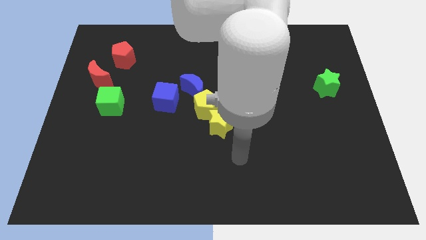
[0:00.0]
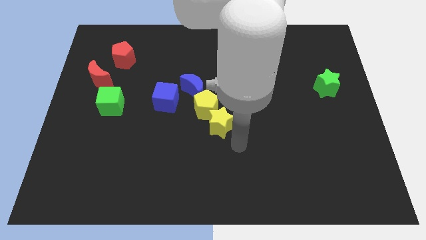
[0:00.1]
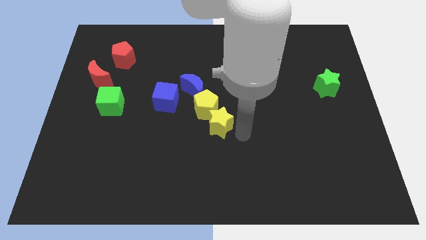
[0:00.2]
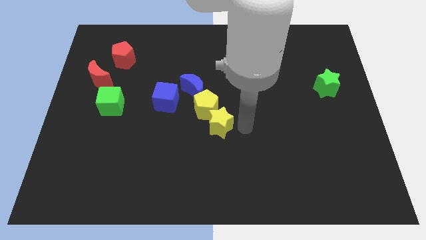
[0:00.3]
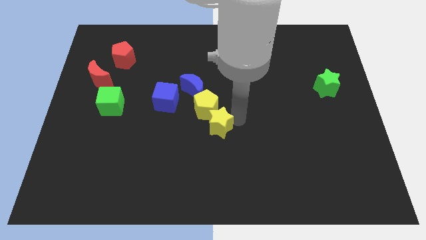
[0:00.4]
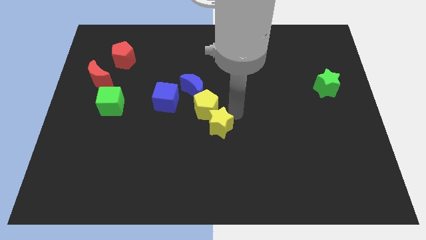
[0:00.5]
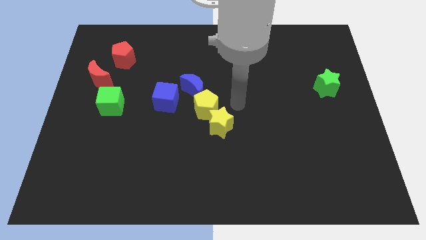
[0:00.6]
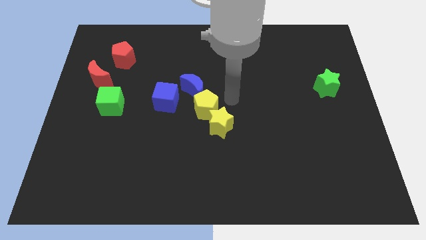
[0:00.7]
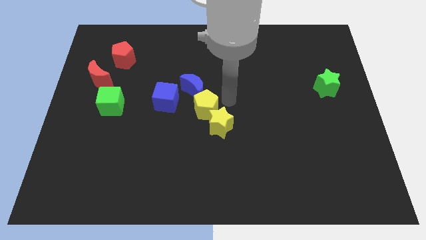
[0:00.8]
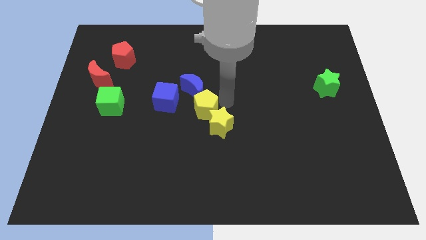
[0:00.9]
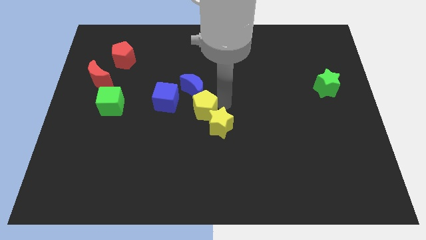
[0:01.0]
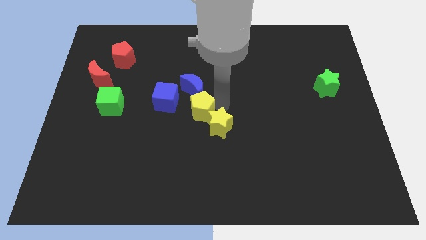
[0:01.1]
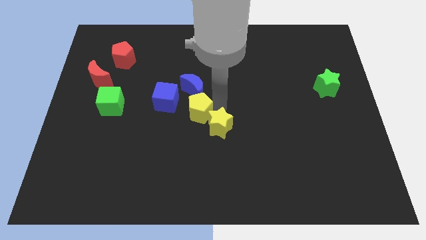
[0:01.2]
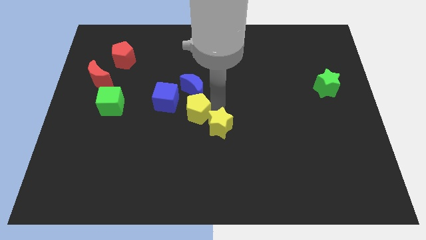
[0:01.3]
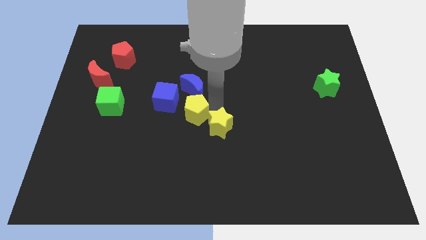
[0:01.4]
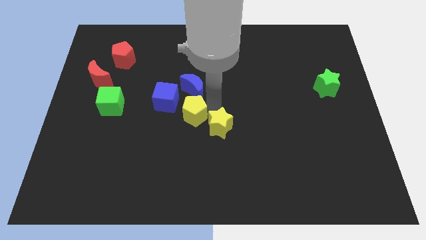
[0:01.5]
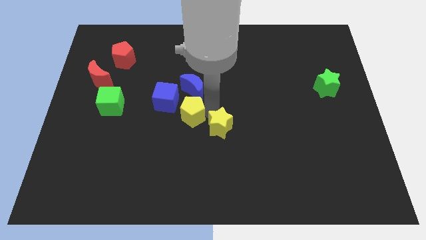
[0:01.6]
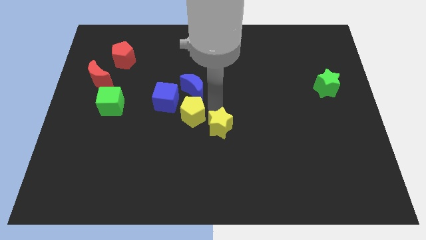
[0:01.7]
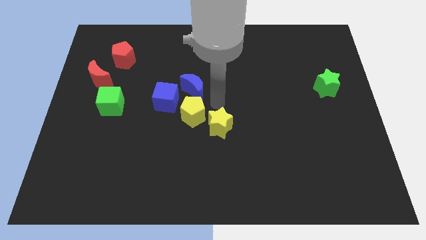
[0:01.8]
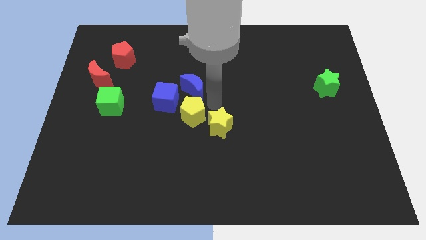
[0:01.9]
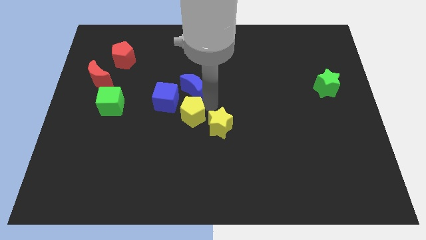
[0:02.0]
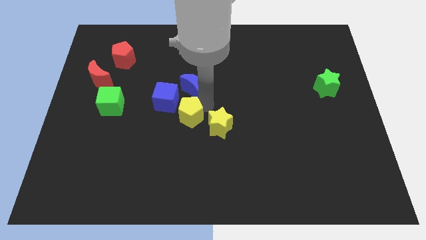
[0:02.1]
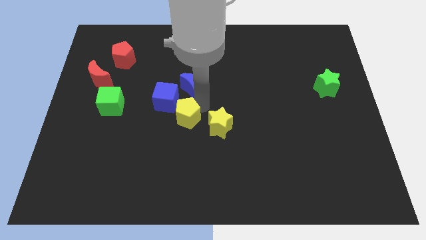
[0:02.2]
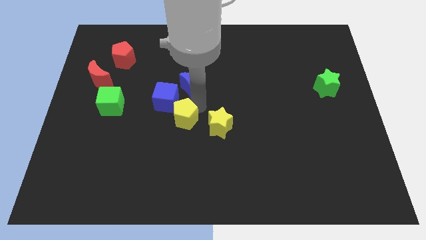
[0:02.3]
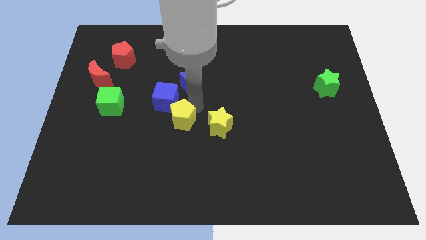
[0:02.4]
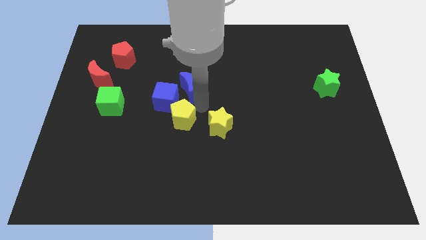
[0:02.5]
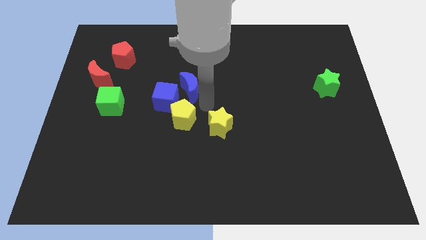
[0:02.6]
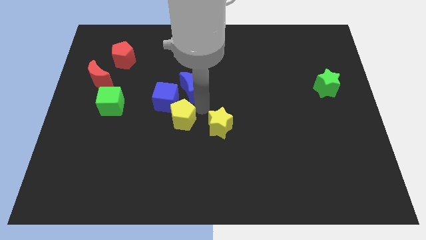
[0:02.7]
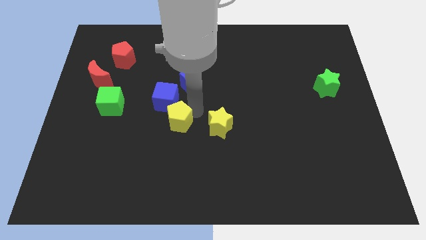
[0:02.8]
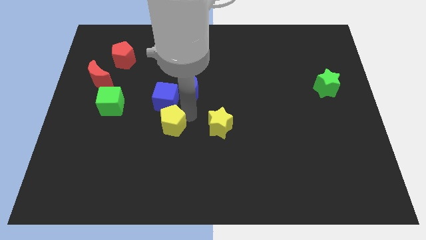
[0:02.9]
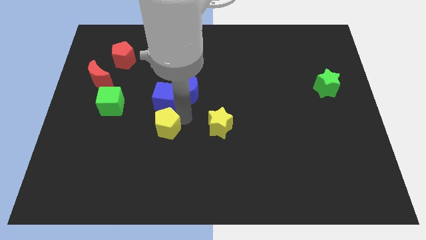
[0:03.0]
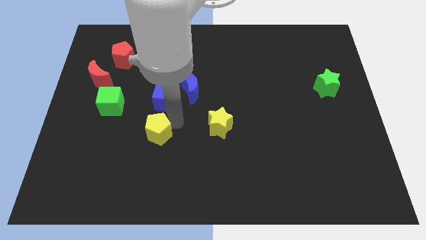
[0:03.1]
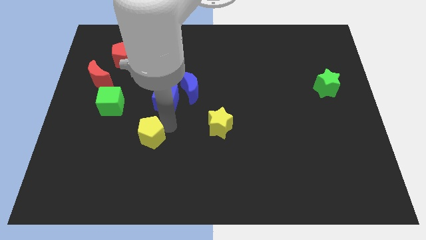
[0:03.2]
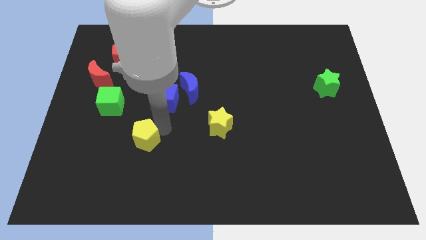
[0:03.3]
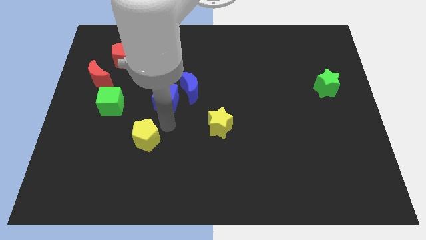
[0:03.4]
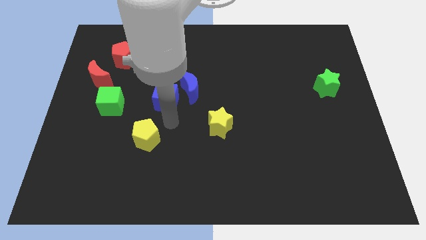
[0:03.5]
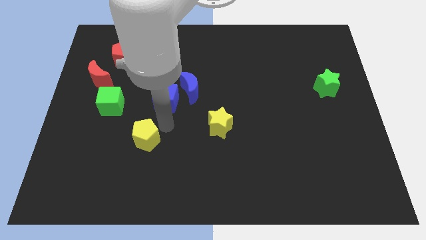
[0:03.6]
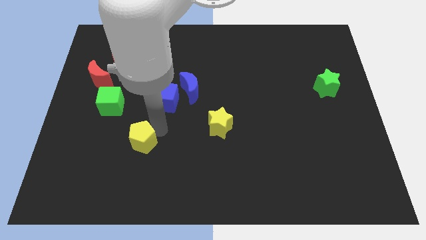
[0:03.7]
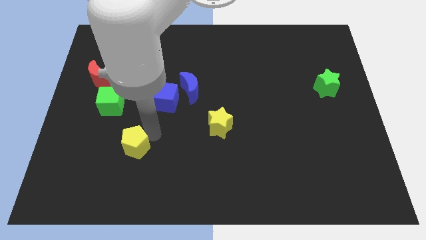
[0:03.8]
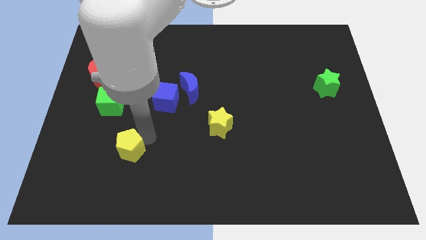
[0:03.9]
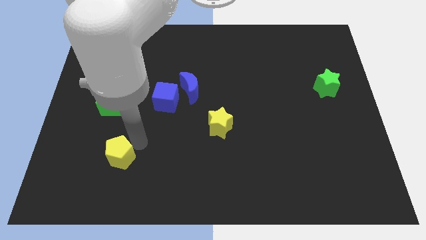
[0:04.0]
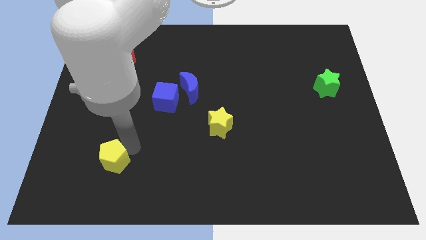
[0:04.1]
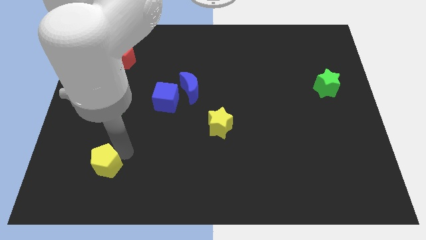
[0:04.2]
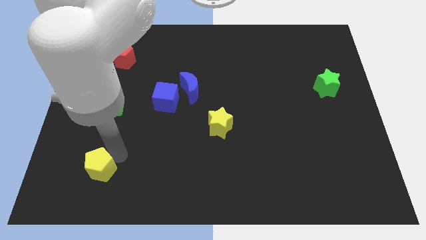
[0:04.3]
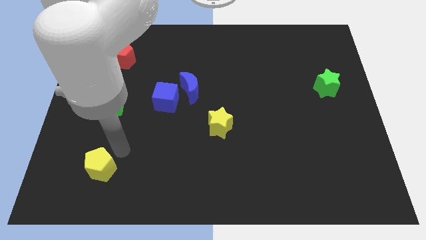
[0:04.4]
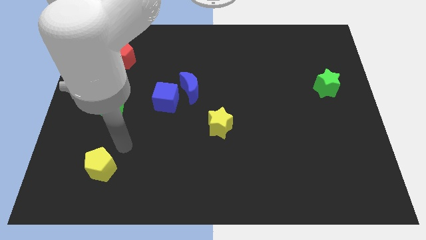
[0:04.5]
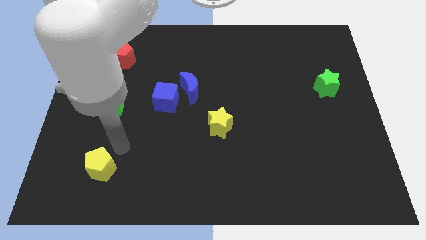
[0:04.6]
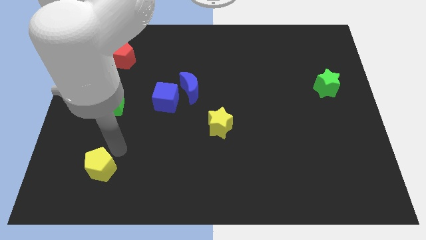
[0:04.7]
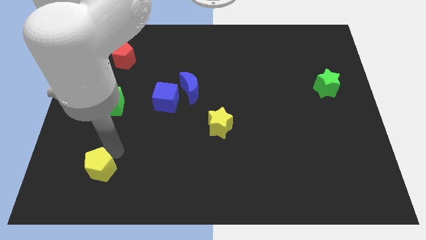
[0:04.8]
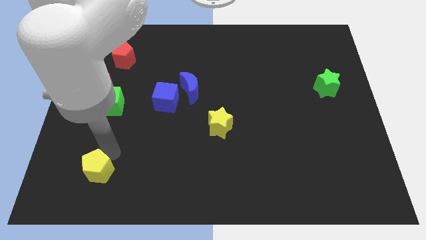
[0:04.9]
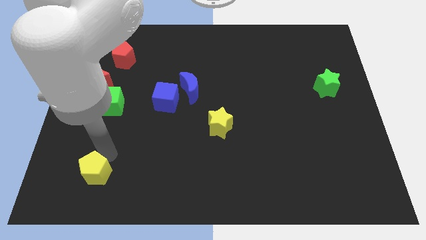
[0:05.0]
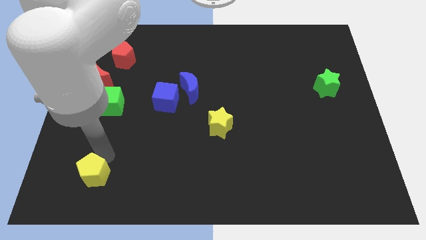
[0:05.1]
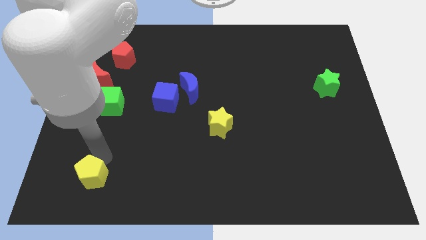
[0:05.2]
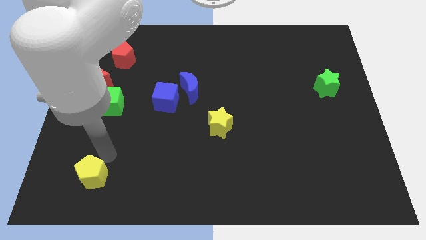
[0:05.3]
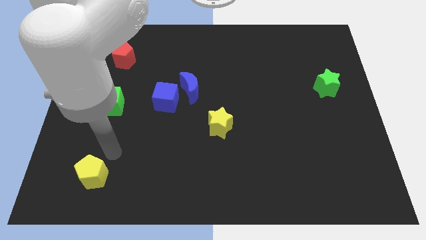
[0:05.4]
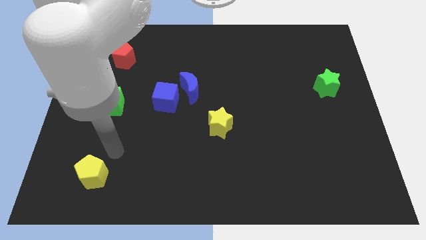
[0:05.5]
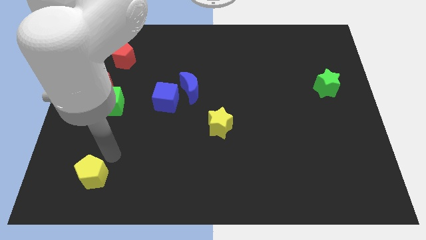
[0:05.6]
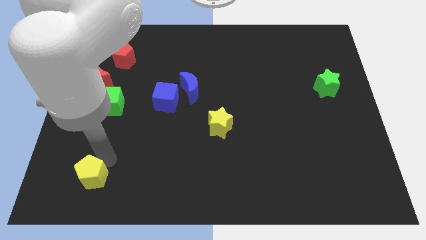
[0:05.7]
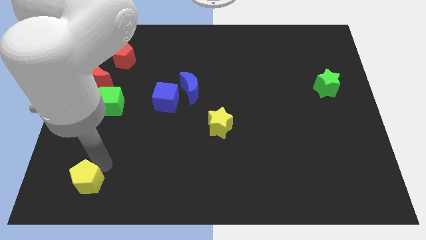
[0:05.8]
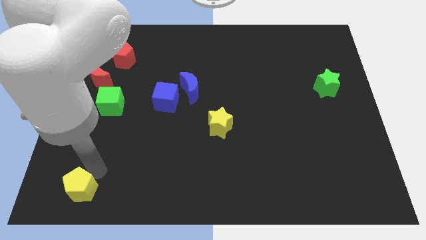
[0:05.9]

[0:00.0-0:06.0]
slide the yellow pentagon to the bottom left

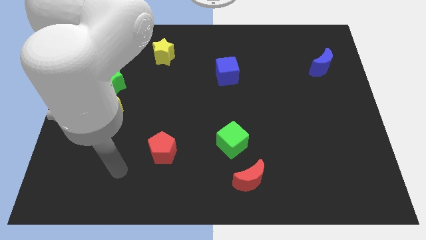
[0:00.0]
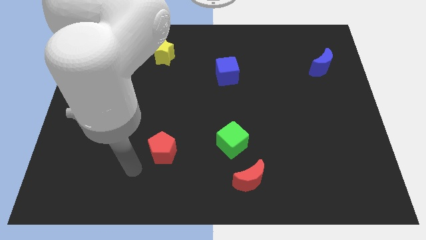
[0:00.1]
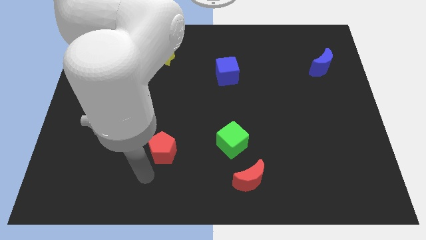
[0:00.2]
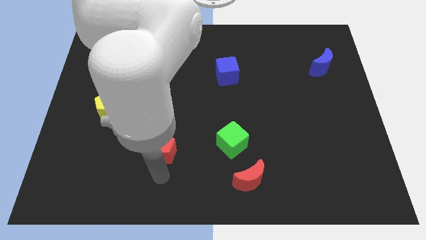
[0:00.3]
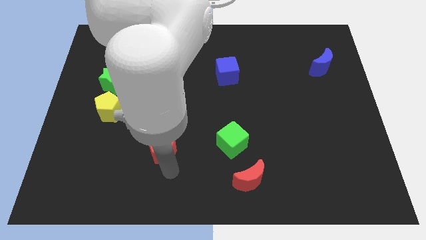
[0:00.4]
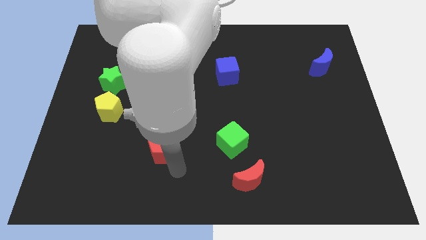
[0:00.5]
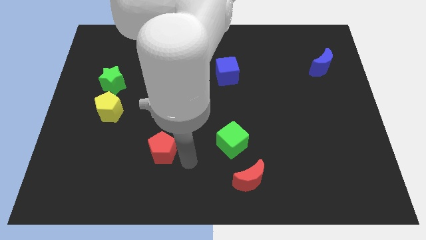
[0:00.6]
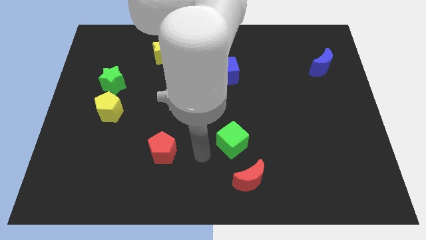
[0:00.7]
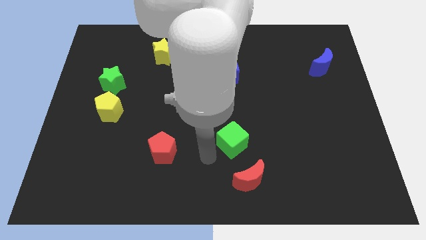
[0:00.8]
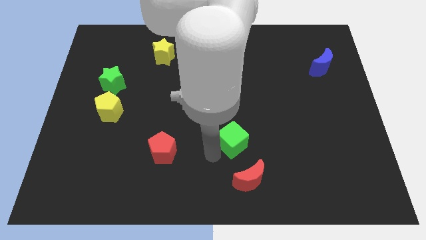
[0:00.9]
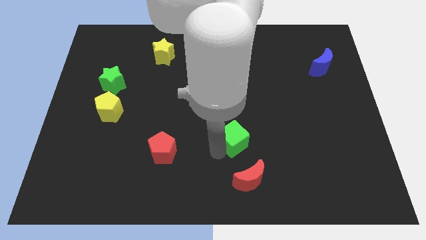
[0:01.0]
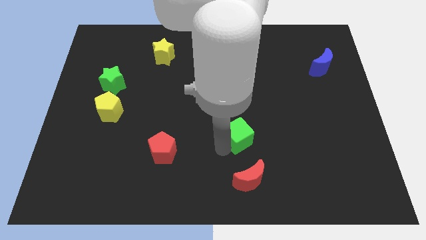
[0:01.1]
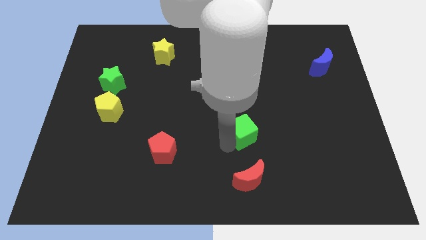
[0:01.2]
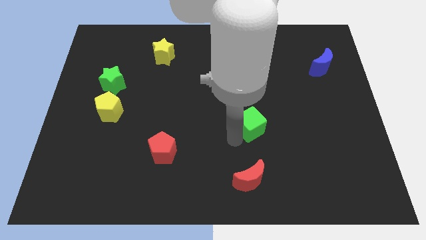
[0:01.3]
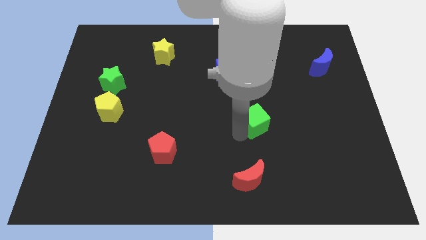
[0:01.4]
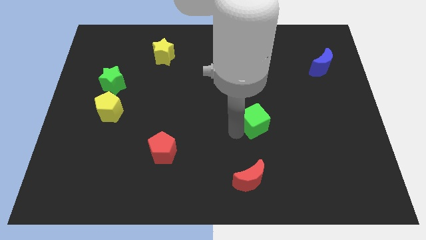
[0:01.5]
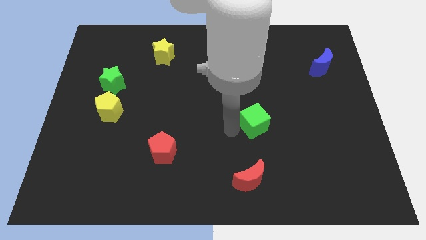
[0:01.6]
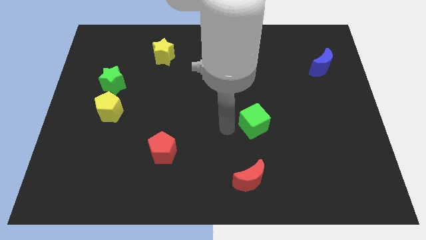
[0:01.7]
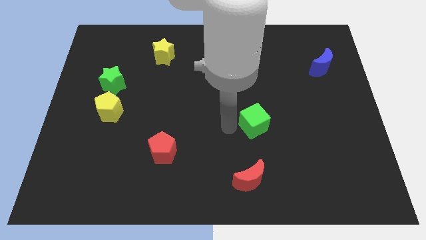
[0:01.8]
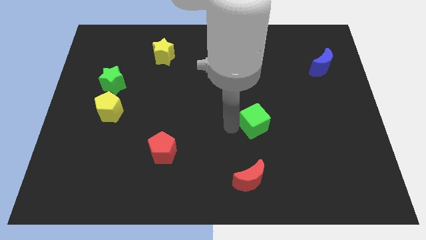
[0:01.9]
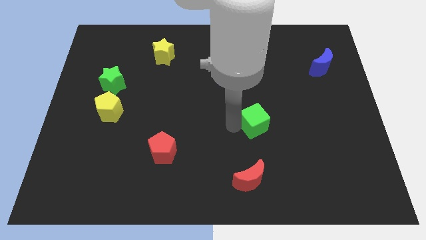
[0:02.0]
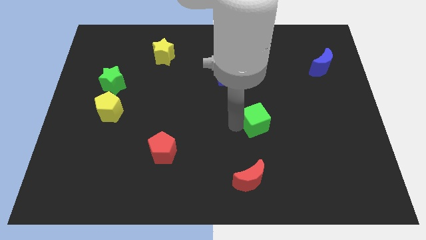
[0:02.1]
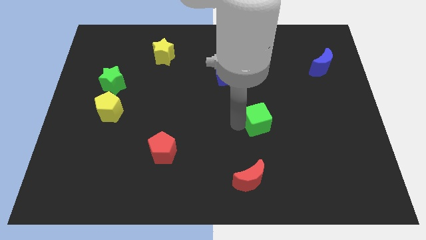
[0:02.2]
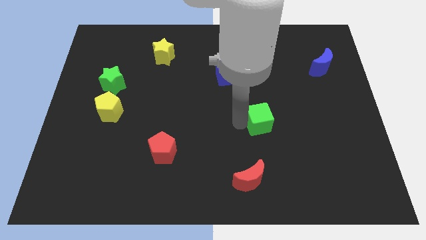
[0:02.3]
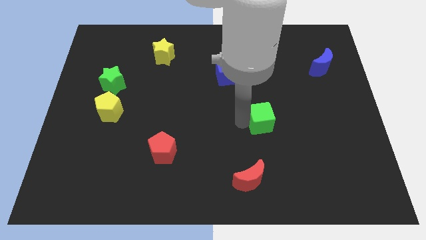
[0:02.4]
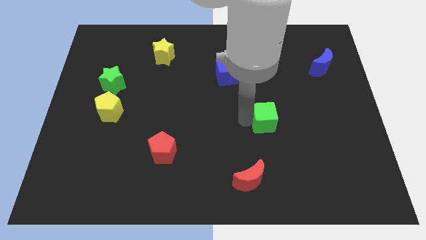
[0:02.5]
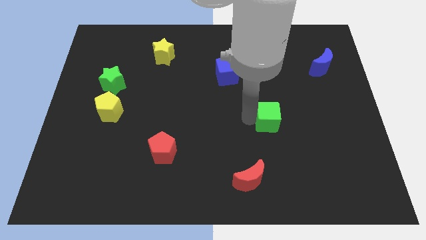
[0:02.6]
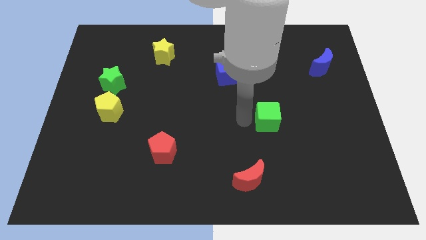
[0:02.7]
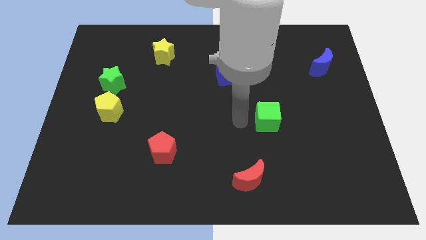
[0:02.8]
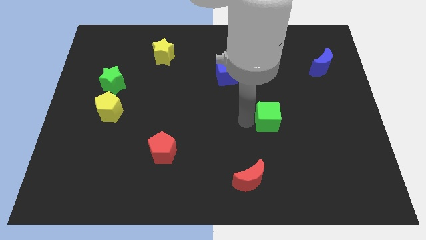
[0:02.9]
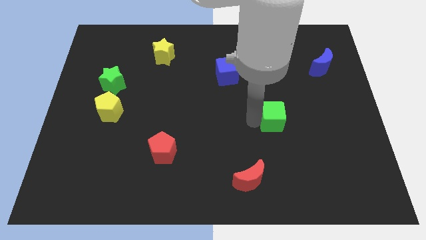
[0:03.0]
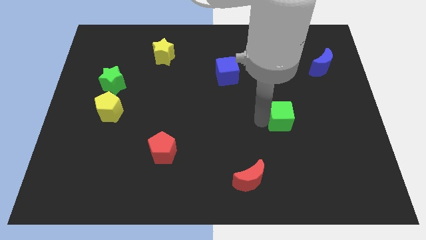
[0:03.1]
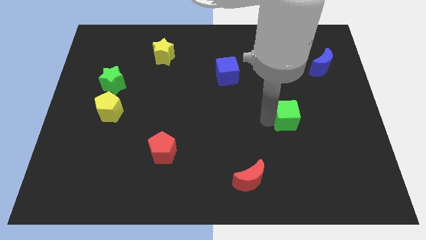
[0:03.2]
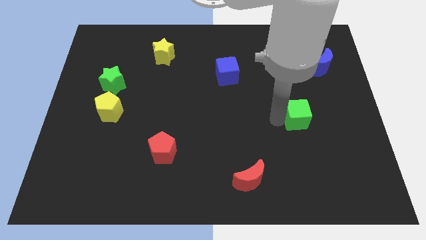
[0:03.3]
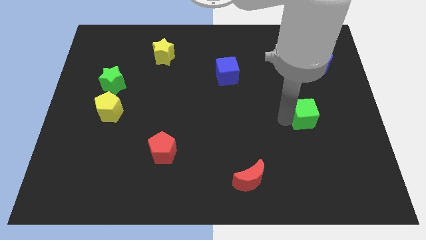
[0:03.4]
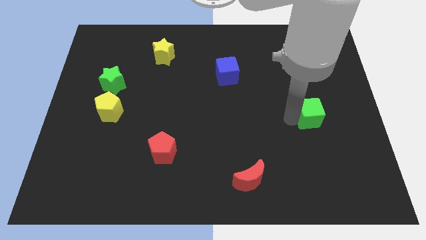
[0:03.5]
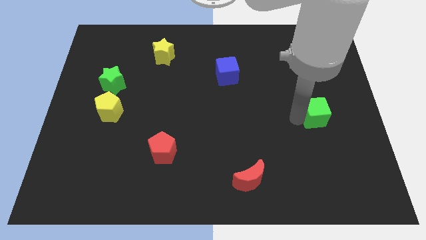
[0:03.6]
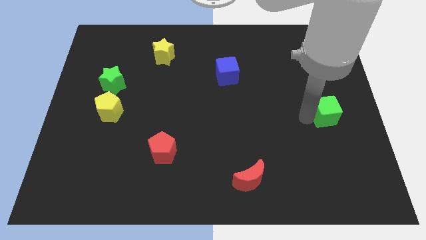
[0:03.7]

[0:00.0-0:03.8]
put the green cube to the center right
